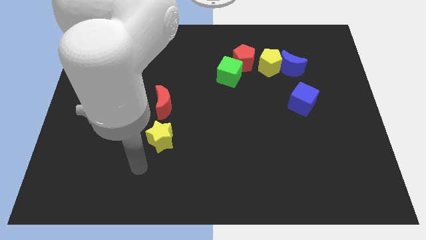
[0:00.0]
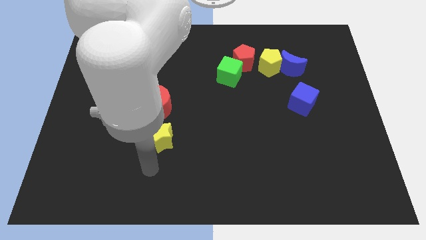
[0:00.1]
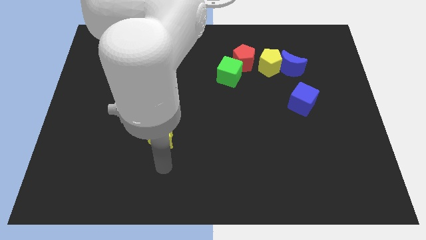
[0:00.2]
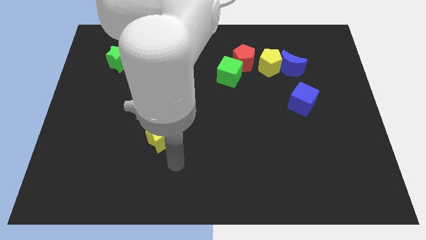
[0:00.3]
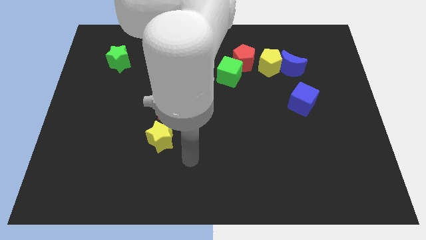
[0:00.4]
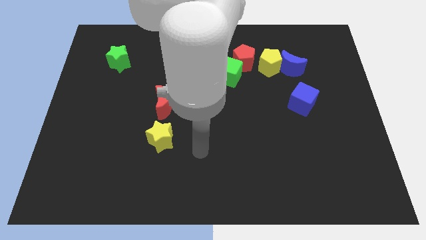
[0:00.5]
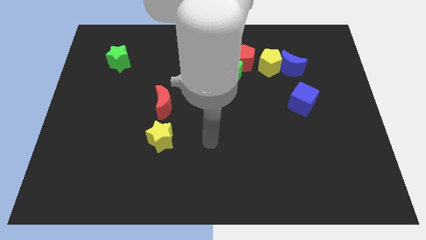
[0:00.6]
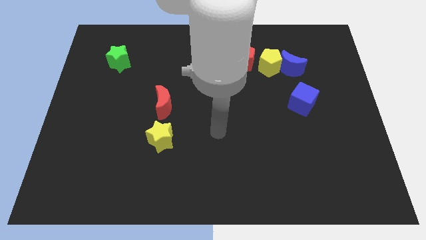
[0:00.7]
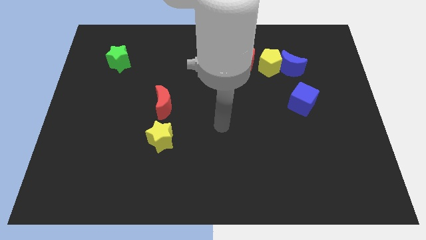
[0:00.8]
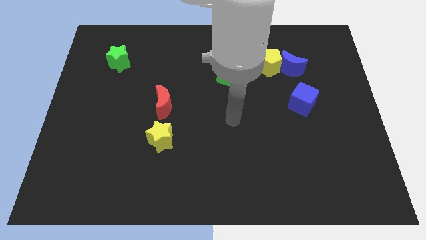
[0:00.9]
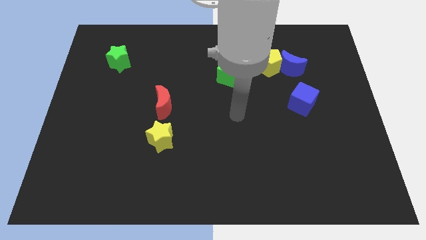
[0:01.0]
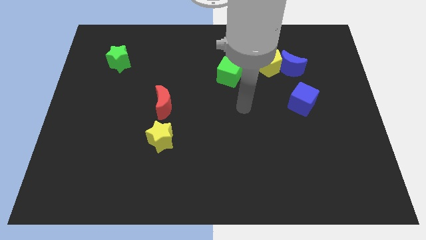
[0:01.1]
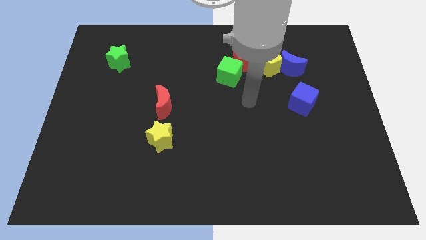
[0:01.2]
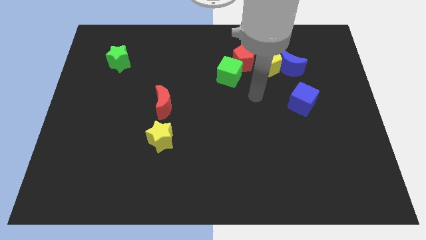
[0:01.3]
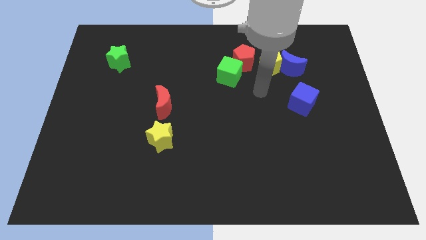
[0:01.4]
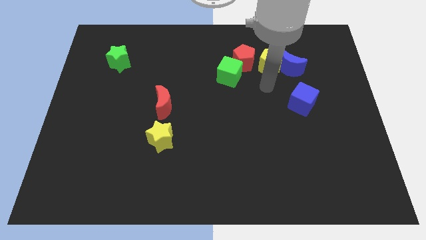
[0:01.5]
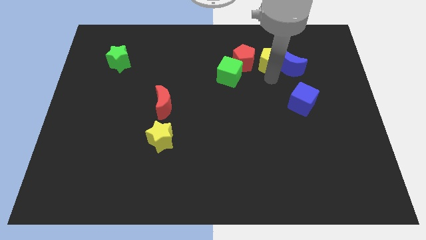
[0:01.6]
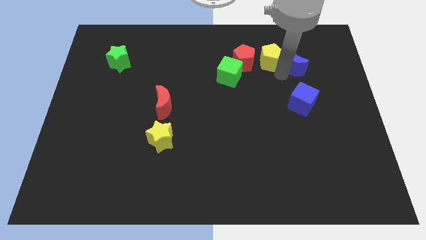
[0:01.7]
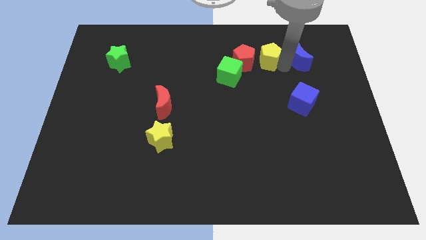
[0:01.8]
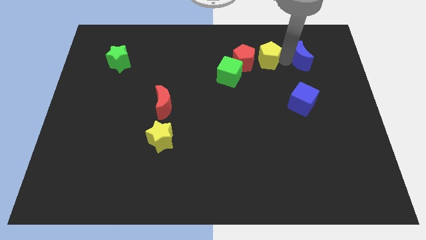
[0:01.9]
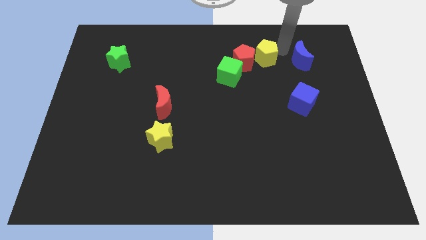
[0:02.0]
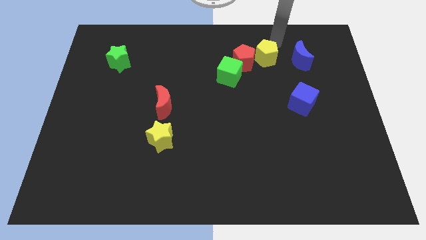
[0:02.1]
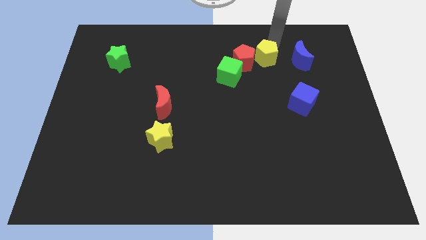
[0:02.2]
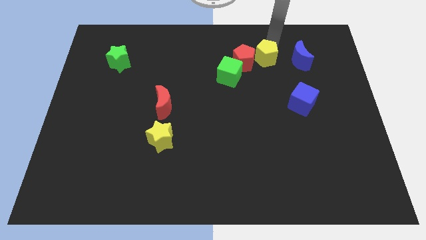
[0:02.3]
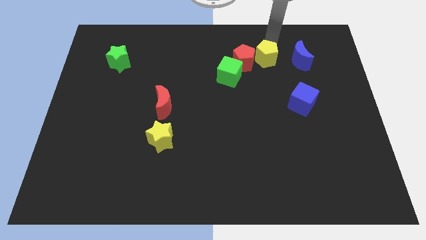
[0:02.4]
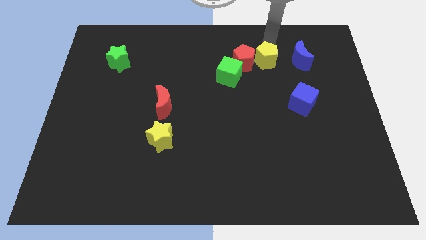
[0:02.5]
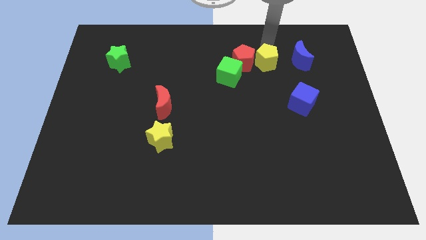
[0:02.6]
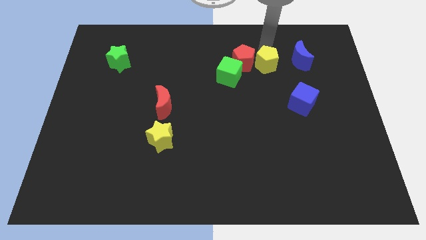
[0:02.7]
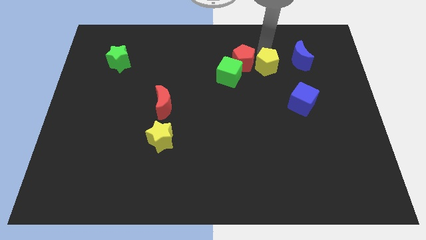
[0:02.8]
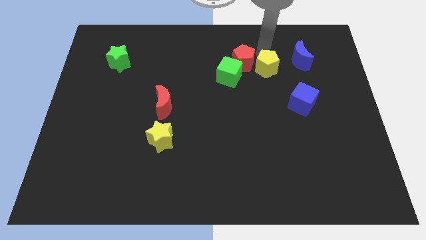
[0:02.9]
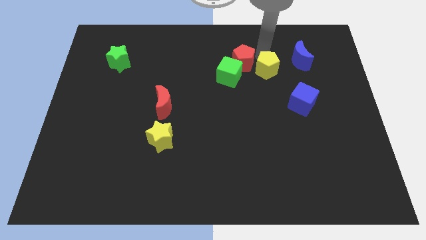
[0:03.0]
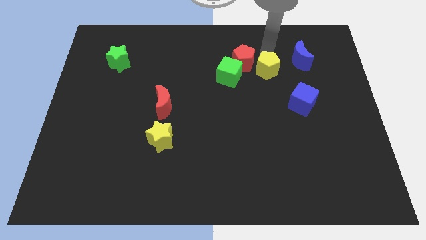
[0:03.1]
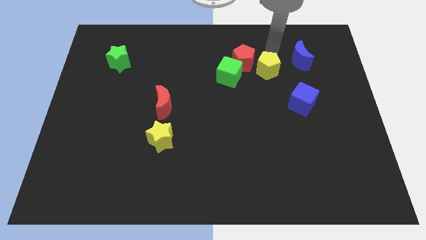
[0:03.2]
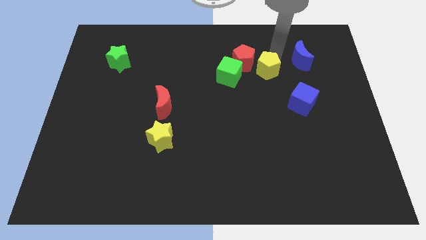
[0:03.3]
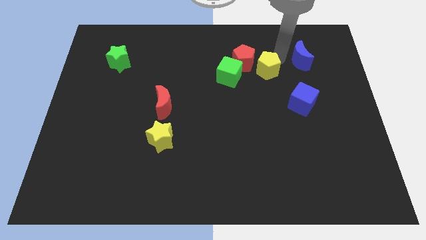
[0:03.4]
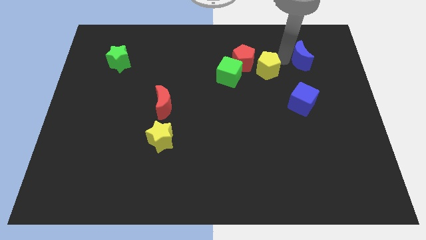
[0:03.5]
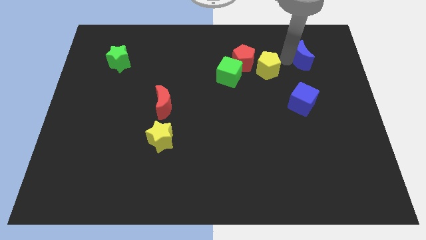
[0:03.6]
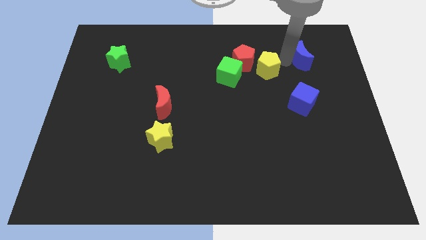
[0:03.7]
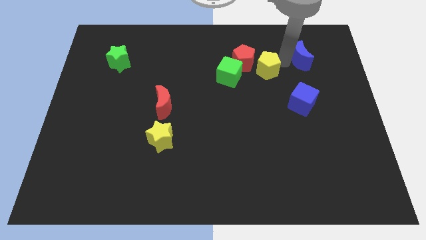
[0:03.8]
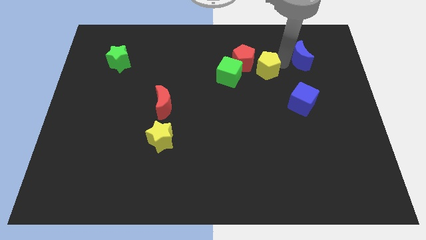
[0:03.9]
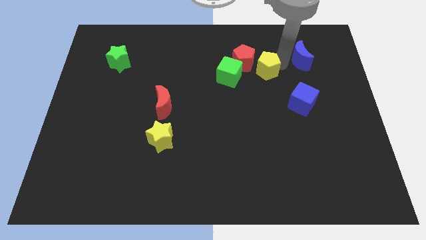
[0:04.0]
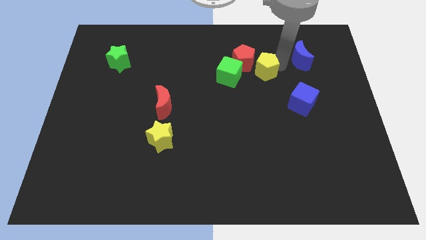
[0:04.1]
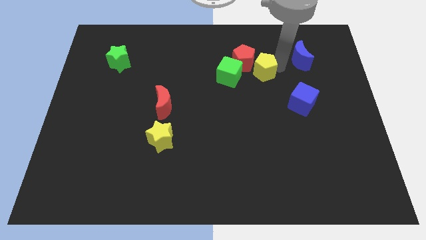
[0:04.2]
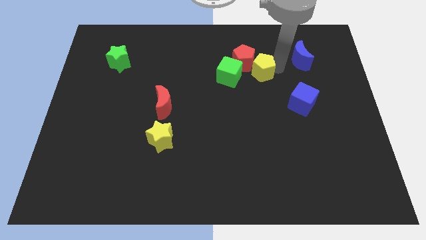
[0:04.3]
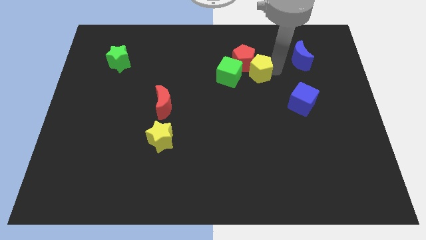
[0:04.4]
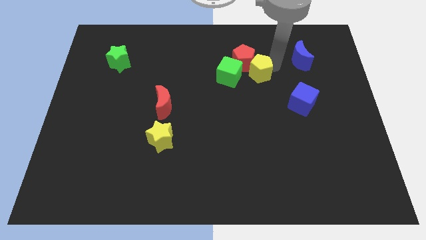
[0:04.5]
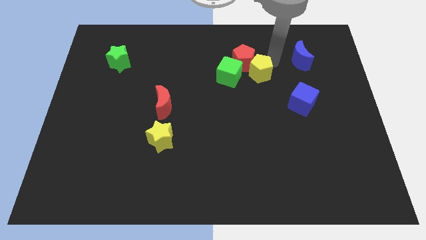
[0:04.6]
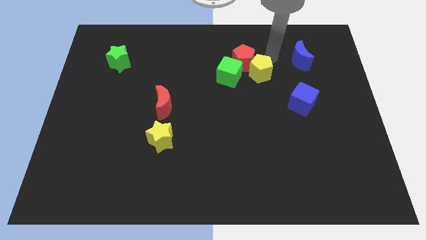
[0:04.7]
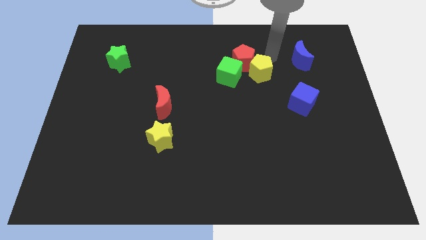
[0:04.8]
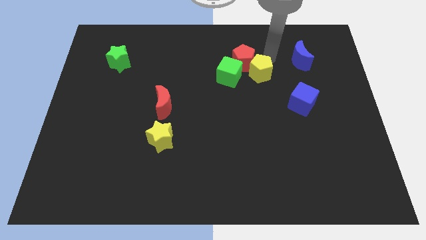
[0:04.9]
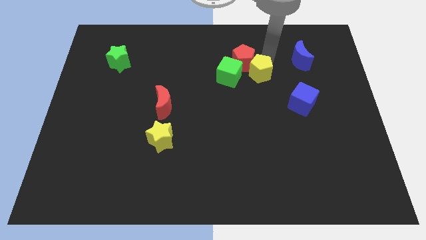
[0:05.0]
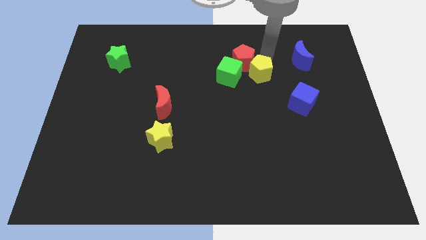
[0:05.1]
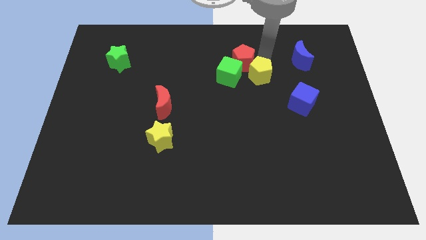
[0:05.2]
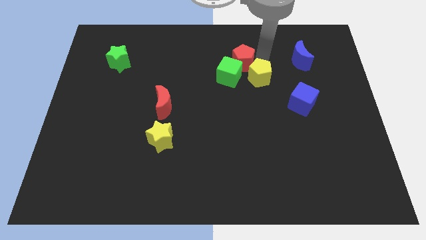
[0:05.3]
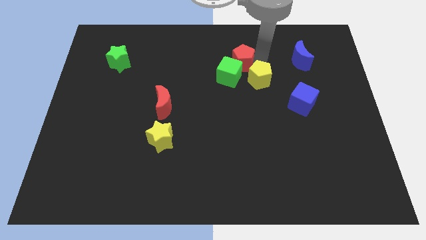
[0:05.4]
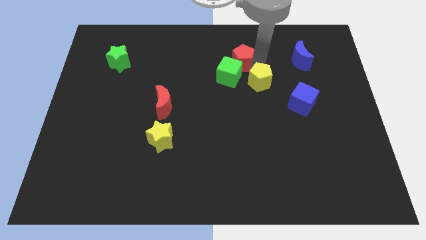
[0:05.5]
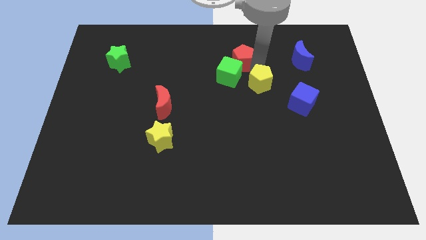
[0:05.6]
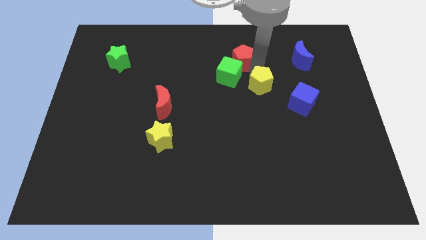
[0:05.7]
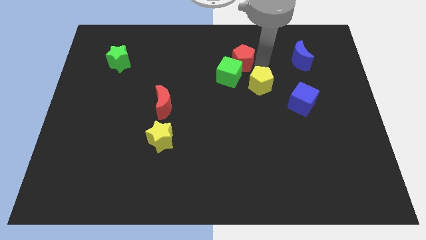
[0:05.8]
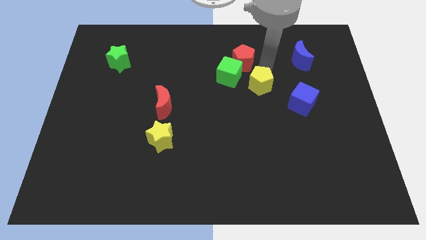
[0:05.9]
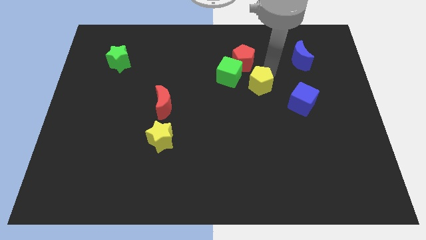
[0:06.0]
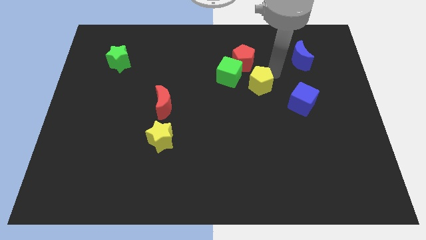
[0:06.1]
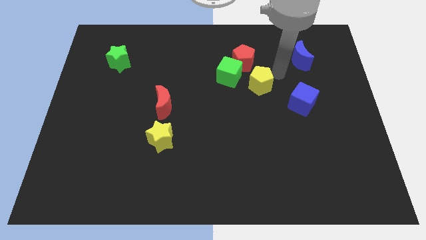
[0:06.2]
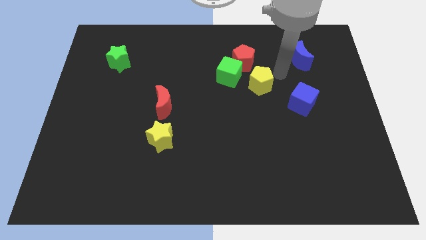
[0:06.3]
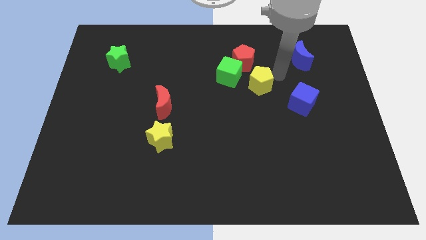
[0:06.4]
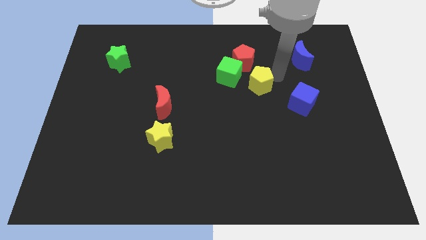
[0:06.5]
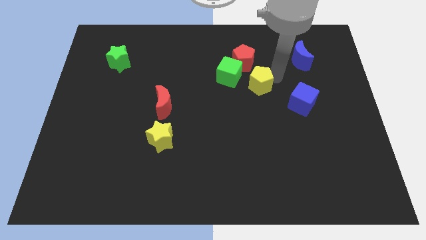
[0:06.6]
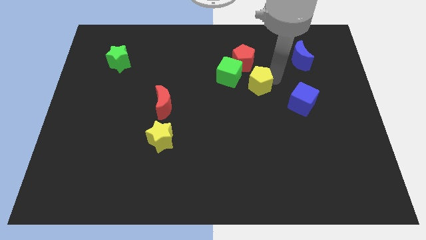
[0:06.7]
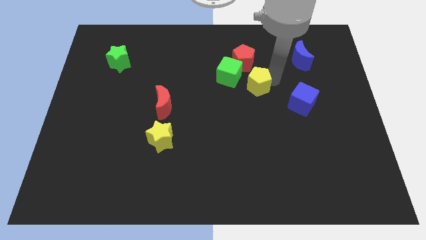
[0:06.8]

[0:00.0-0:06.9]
slide the yellow pentagon slightly down and left

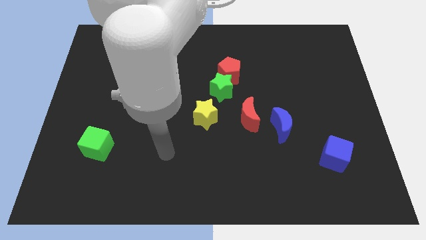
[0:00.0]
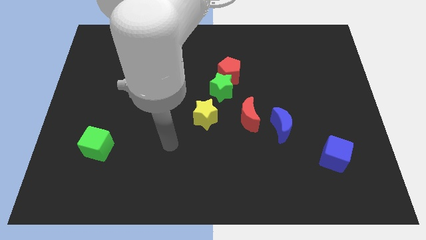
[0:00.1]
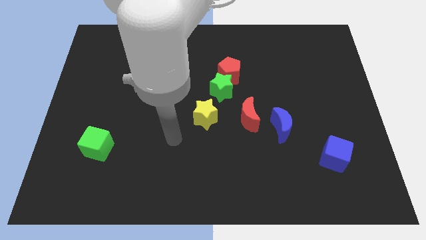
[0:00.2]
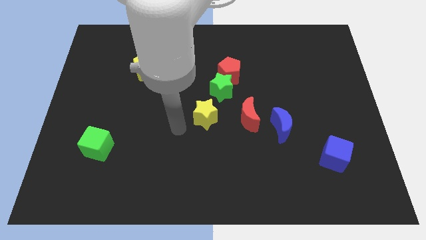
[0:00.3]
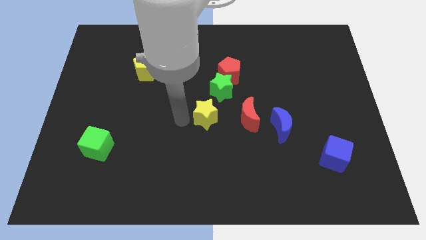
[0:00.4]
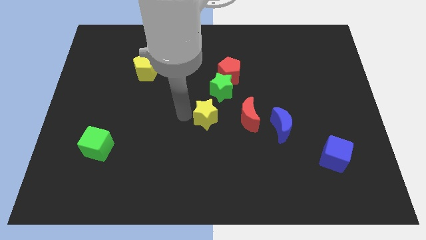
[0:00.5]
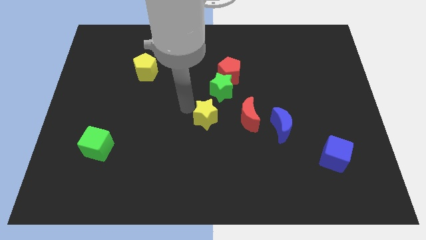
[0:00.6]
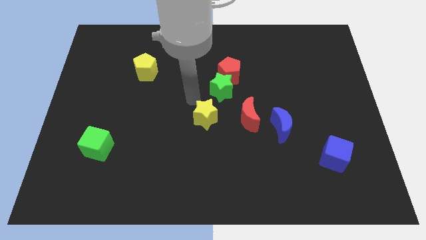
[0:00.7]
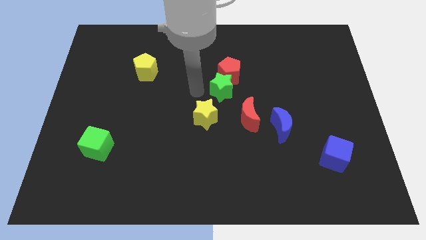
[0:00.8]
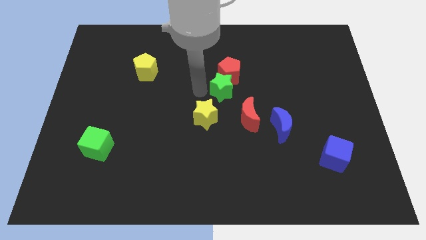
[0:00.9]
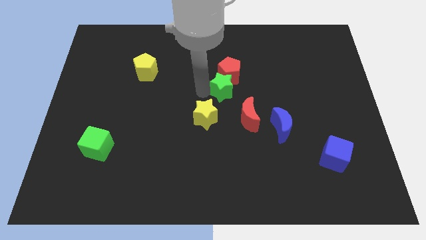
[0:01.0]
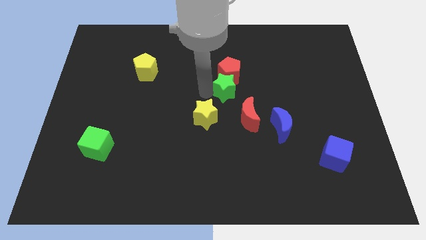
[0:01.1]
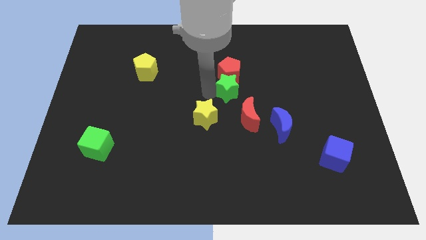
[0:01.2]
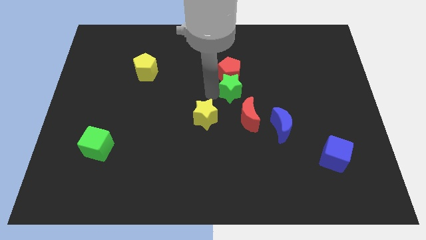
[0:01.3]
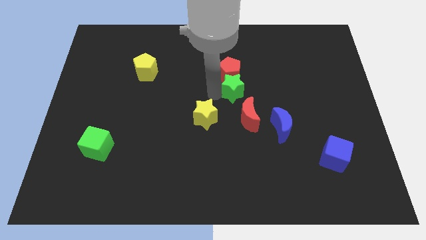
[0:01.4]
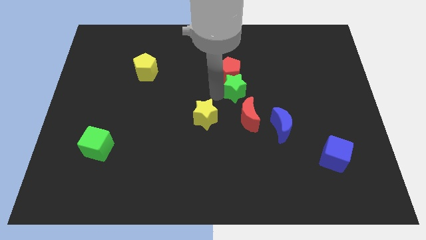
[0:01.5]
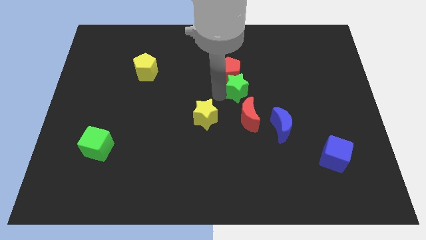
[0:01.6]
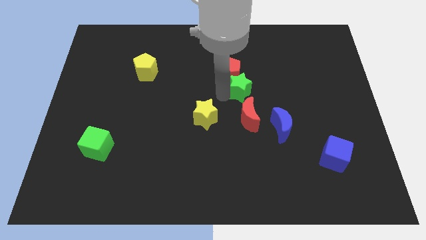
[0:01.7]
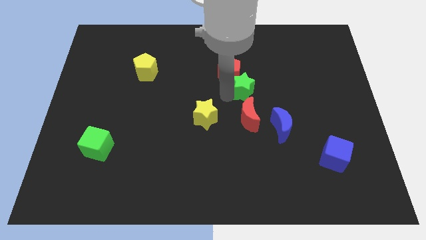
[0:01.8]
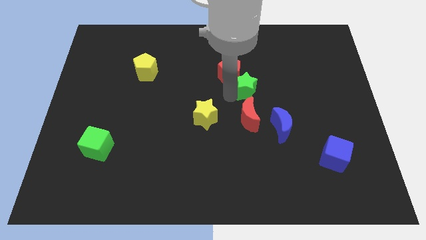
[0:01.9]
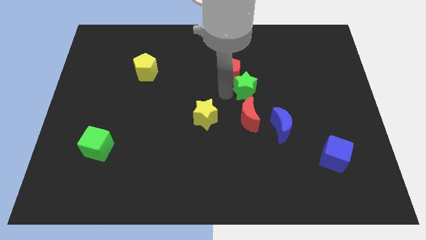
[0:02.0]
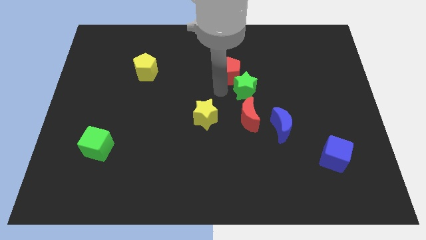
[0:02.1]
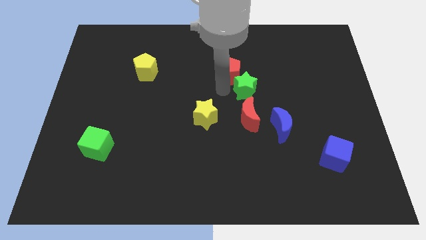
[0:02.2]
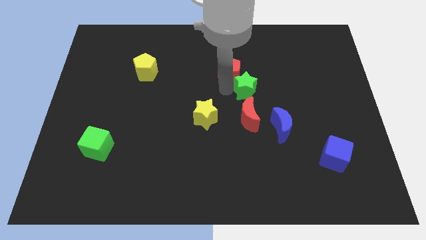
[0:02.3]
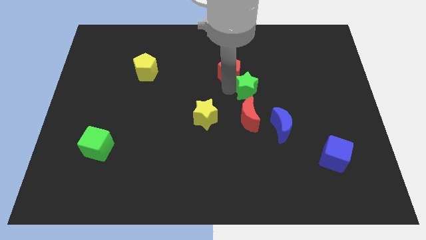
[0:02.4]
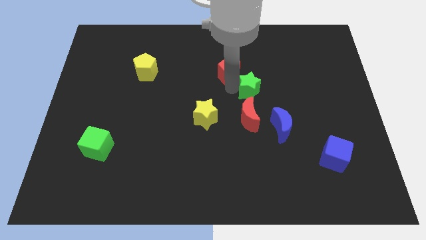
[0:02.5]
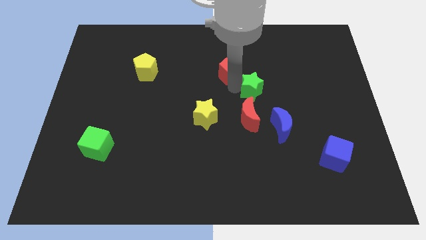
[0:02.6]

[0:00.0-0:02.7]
slide the green star right a little bit
